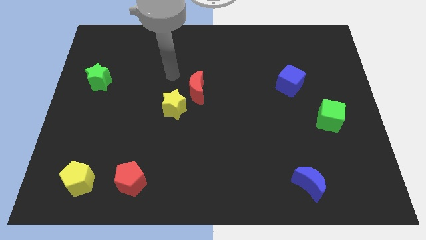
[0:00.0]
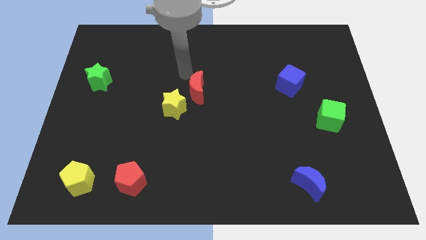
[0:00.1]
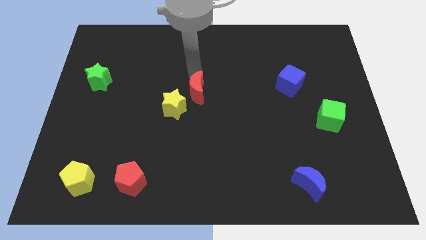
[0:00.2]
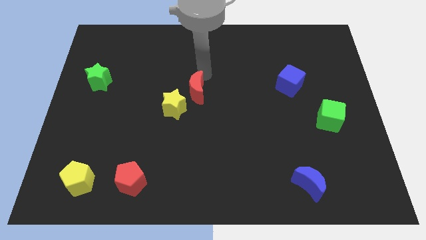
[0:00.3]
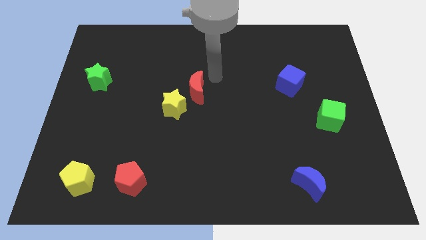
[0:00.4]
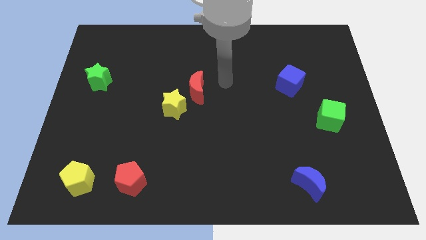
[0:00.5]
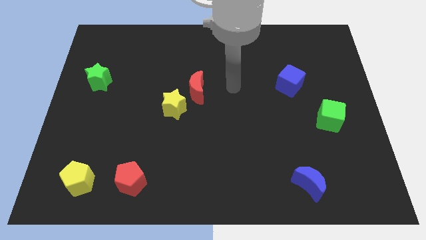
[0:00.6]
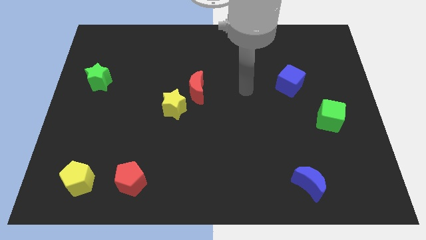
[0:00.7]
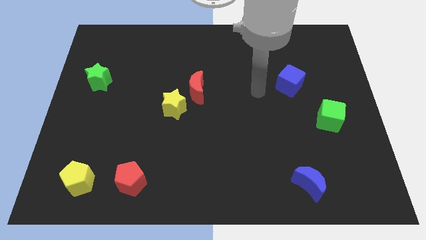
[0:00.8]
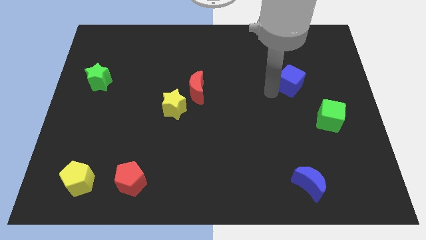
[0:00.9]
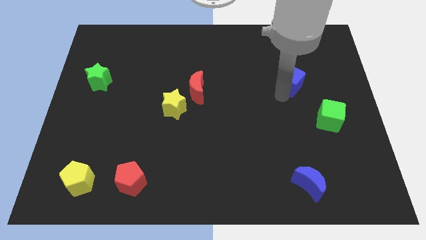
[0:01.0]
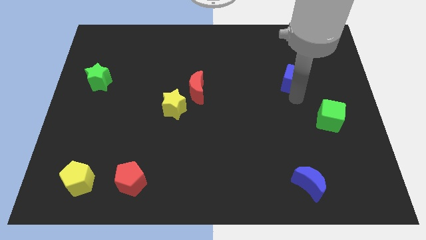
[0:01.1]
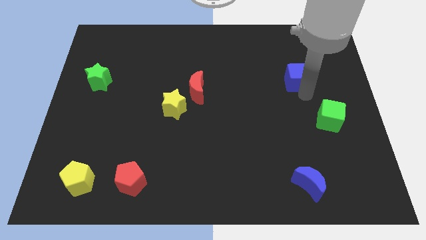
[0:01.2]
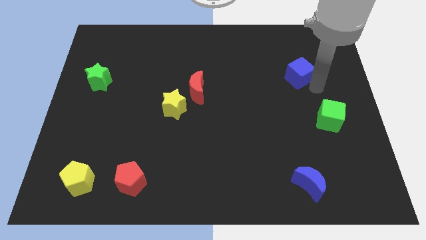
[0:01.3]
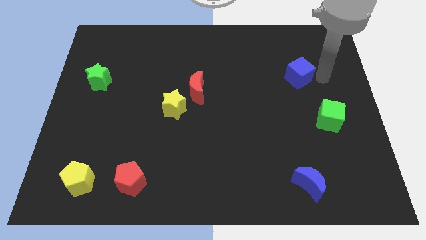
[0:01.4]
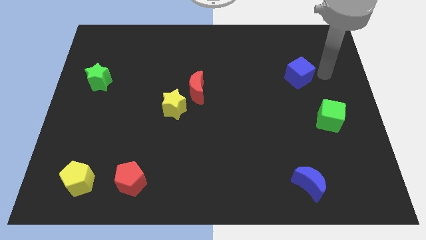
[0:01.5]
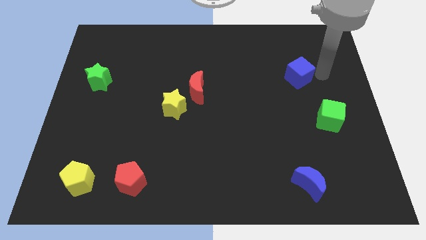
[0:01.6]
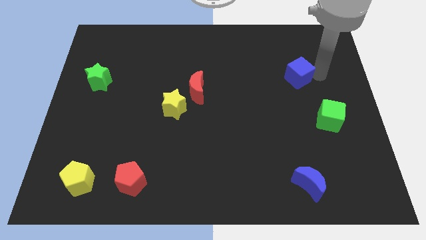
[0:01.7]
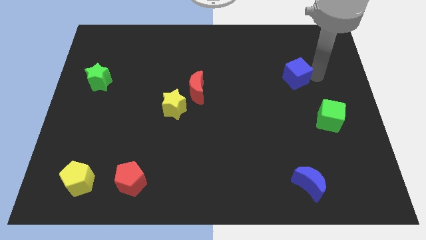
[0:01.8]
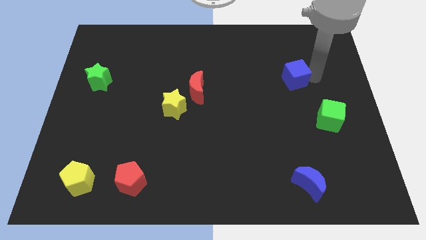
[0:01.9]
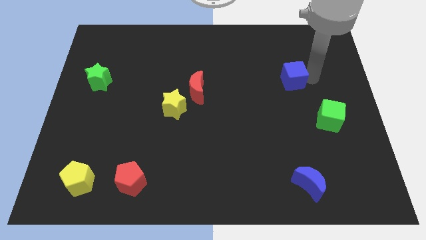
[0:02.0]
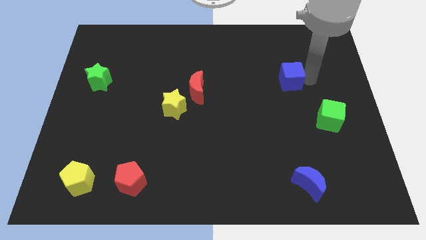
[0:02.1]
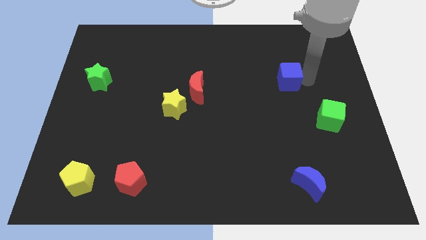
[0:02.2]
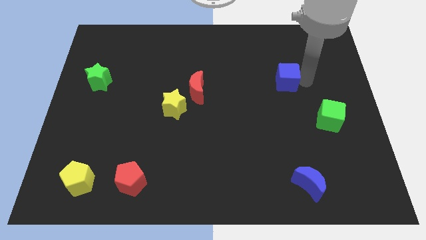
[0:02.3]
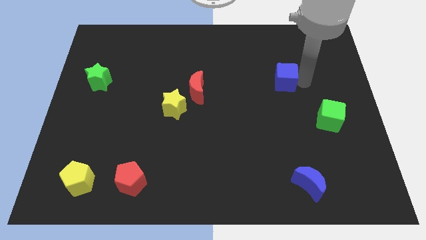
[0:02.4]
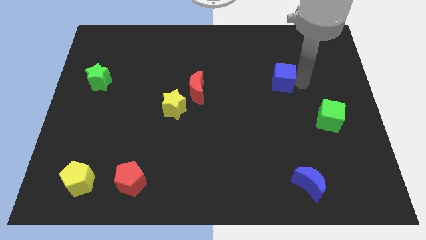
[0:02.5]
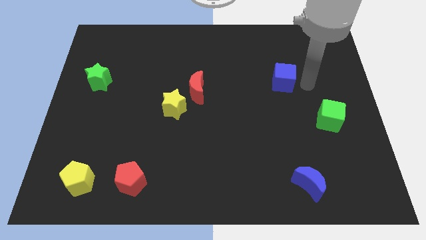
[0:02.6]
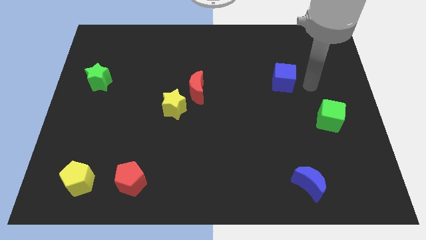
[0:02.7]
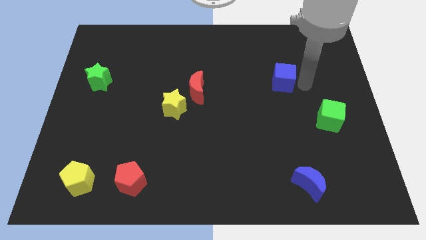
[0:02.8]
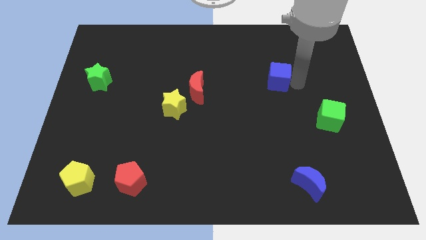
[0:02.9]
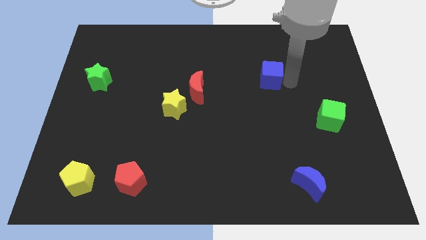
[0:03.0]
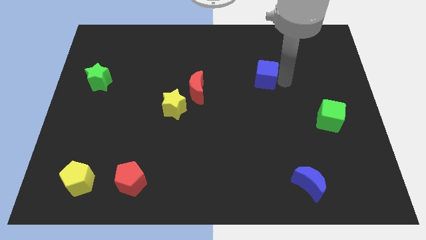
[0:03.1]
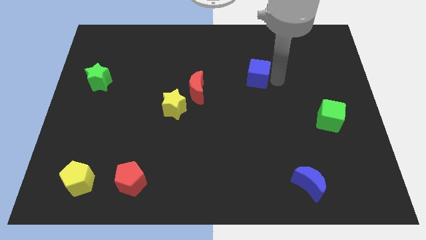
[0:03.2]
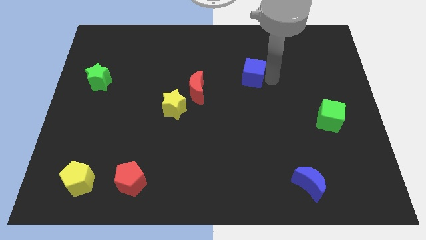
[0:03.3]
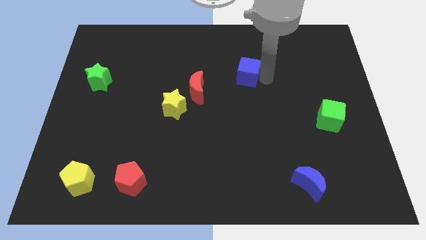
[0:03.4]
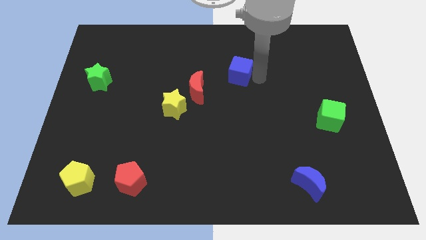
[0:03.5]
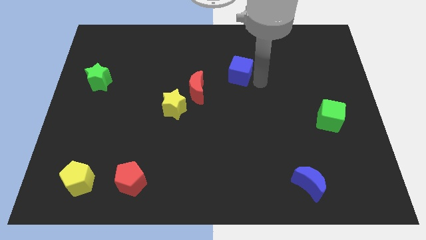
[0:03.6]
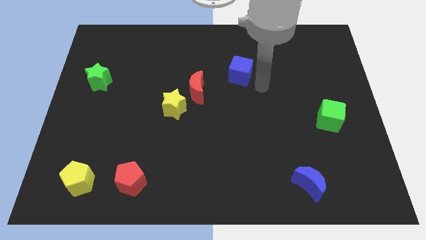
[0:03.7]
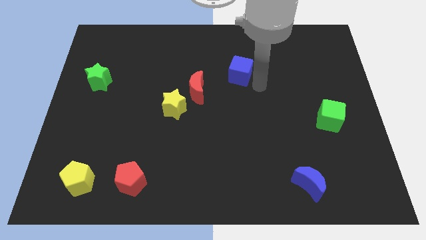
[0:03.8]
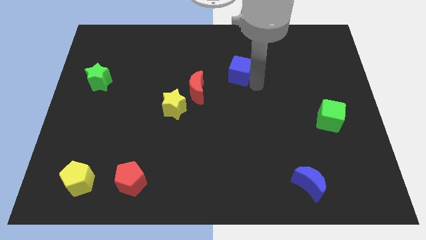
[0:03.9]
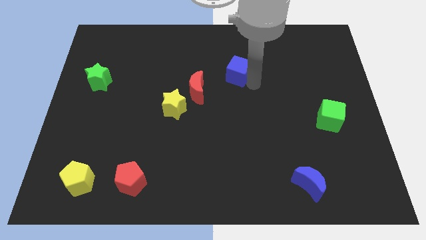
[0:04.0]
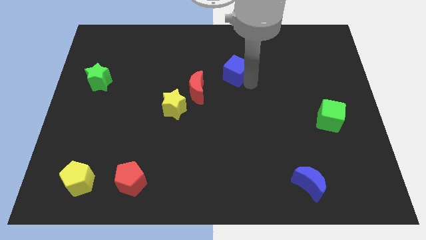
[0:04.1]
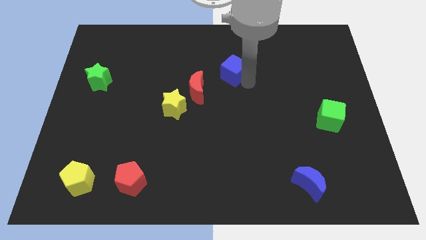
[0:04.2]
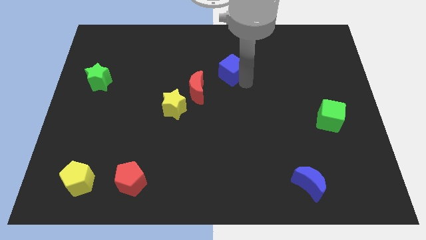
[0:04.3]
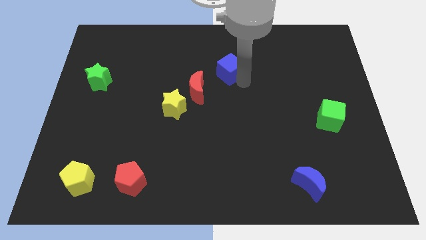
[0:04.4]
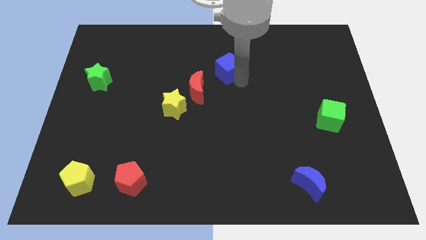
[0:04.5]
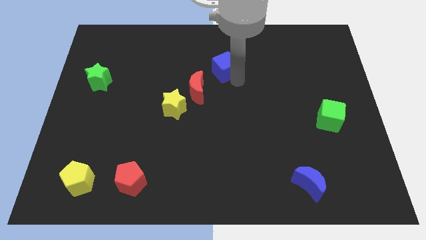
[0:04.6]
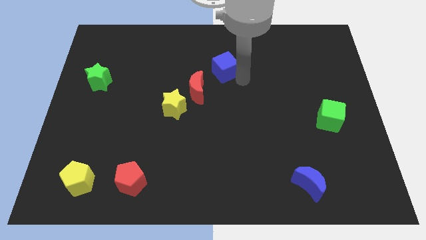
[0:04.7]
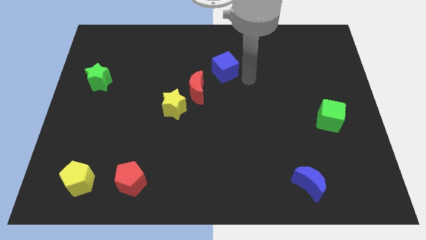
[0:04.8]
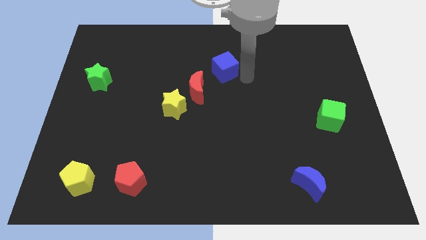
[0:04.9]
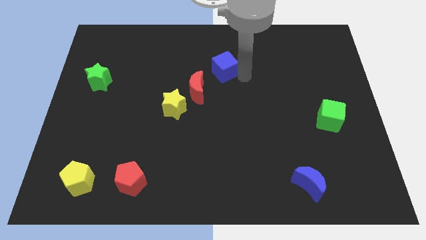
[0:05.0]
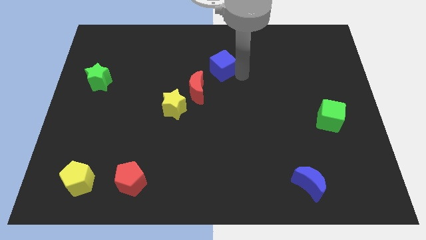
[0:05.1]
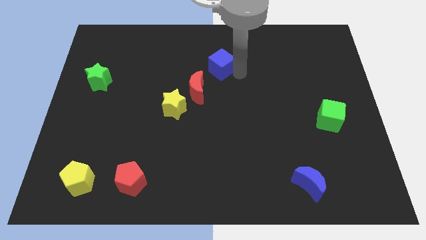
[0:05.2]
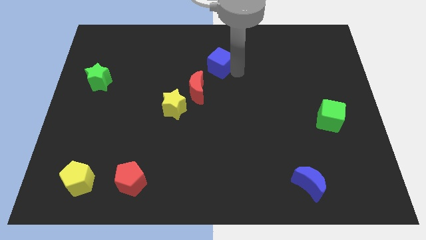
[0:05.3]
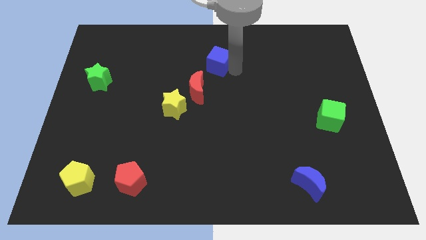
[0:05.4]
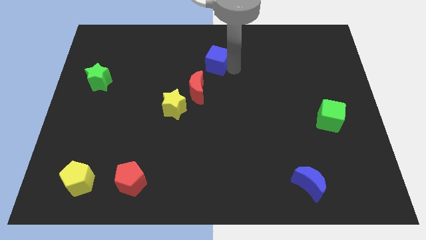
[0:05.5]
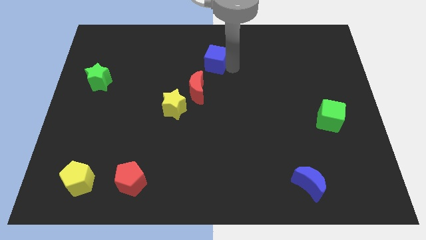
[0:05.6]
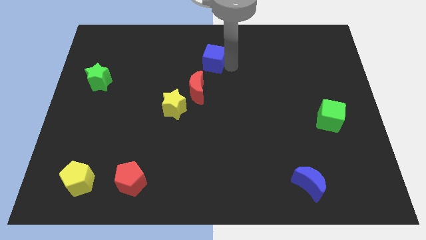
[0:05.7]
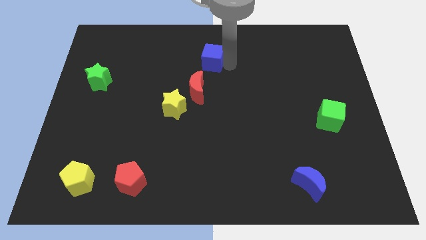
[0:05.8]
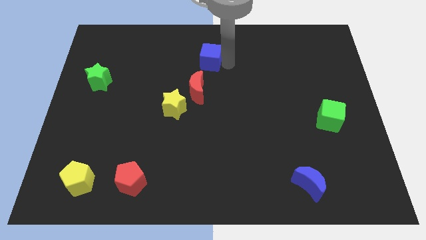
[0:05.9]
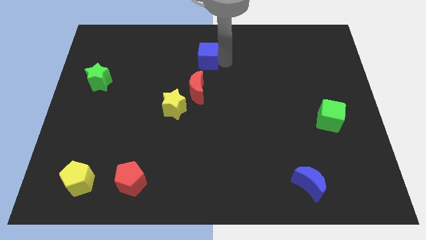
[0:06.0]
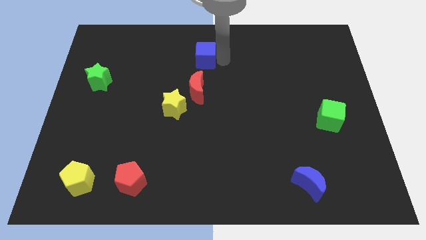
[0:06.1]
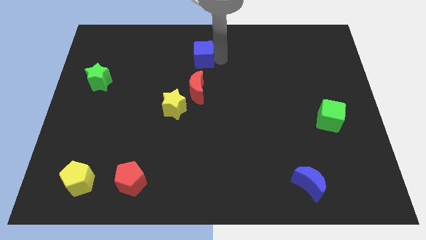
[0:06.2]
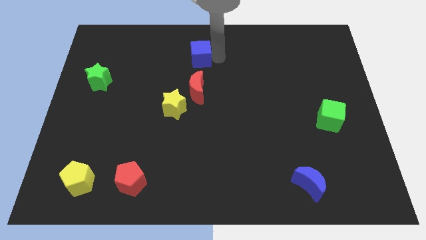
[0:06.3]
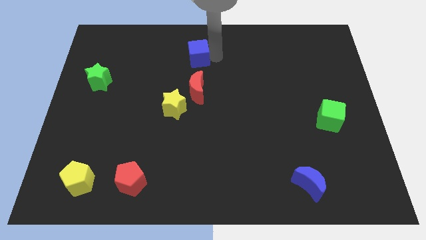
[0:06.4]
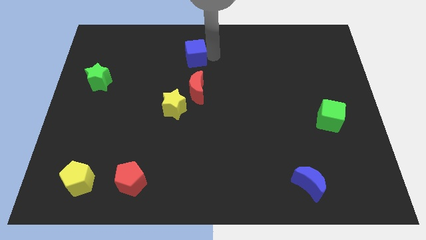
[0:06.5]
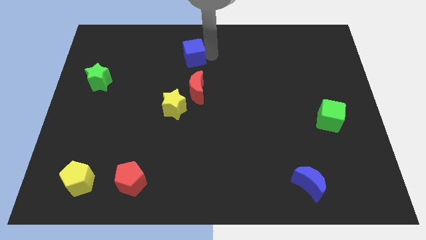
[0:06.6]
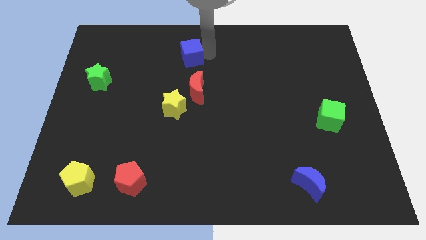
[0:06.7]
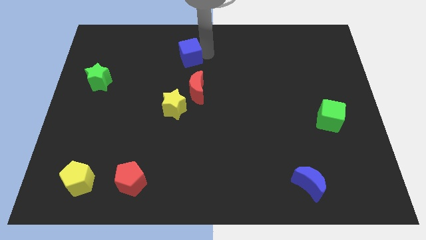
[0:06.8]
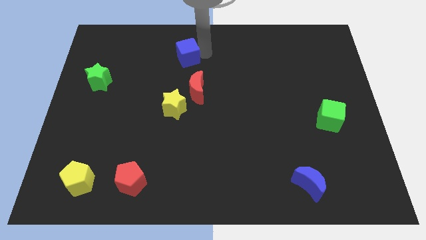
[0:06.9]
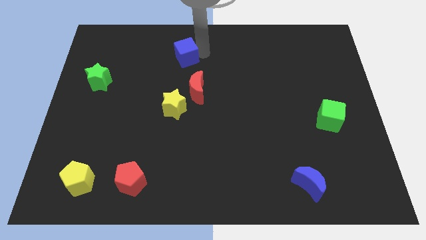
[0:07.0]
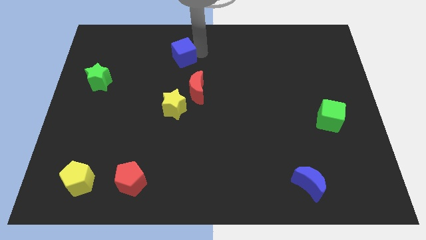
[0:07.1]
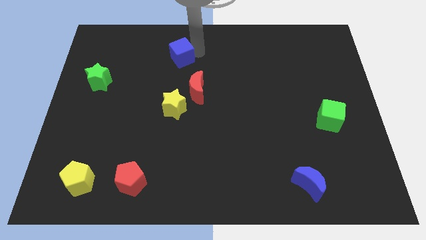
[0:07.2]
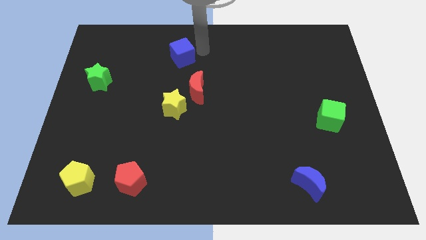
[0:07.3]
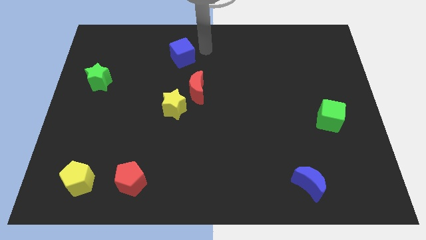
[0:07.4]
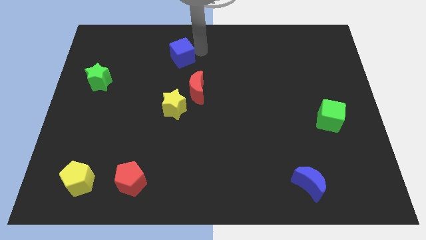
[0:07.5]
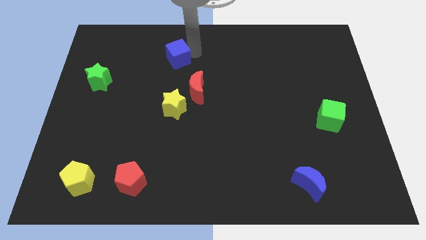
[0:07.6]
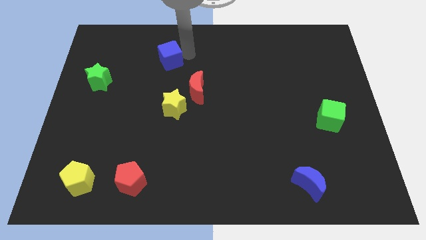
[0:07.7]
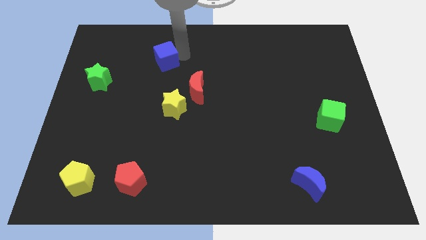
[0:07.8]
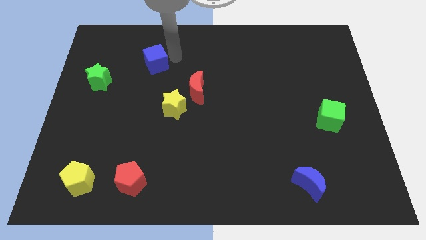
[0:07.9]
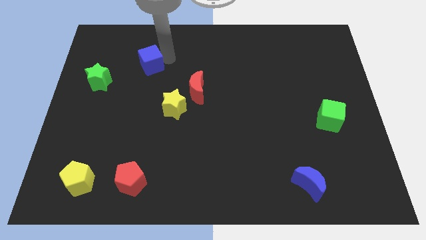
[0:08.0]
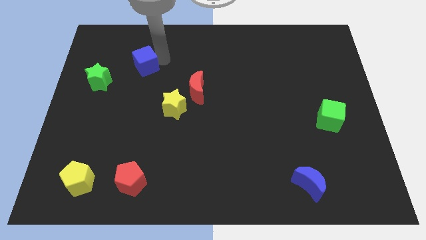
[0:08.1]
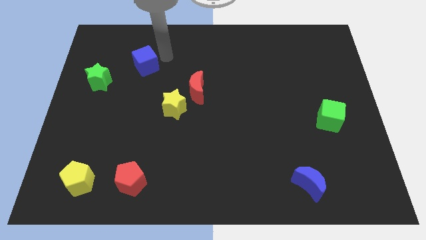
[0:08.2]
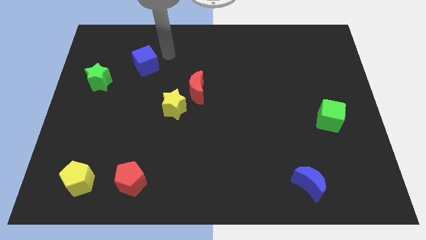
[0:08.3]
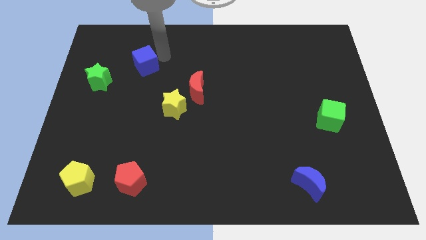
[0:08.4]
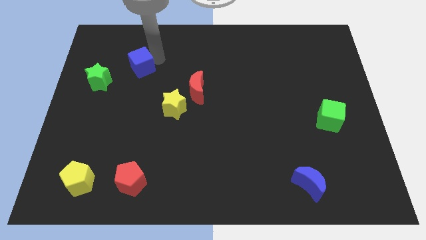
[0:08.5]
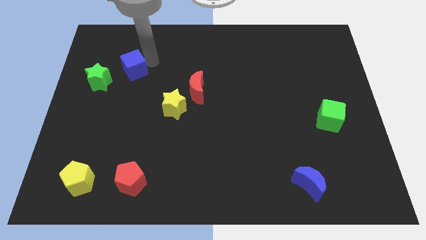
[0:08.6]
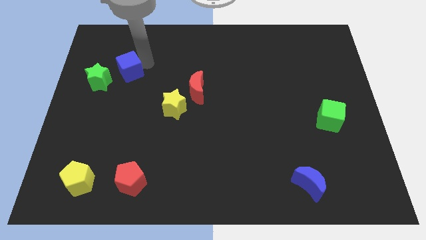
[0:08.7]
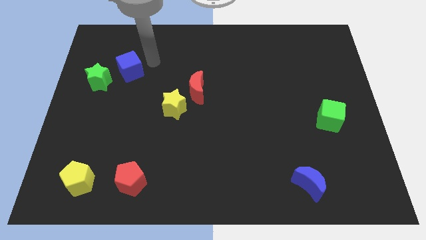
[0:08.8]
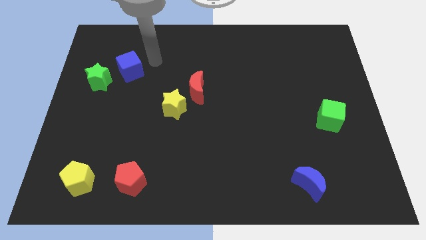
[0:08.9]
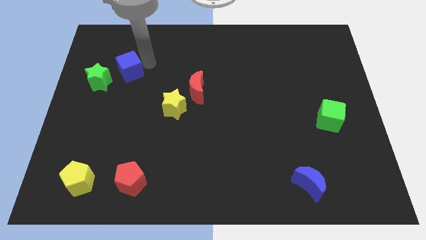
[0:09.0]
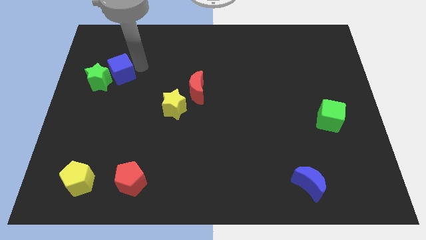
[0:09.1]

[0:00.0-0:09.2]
slide the blue cube towards the green star
